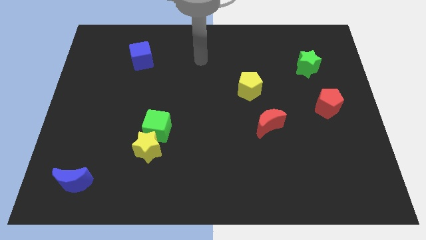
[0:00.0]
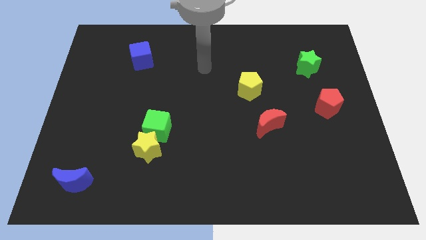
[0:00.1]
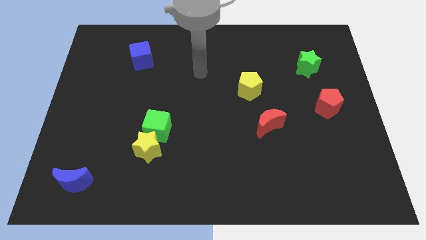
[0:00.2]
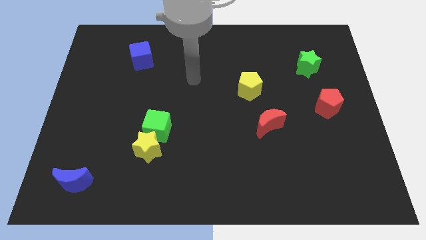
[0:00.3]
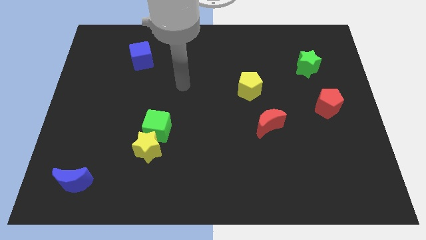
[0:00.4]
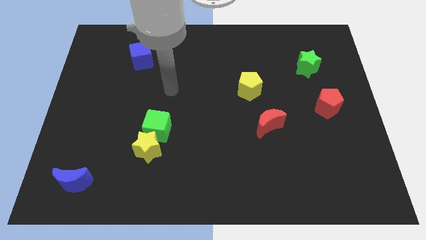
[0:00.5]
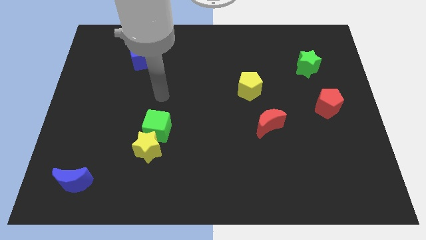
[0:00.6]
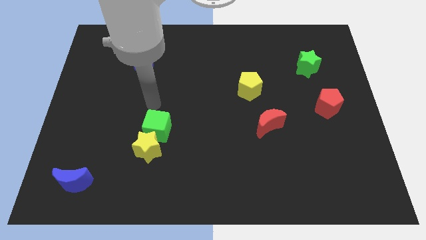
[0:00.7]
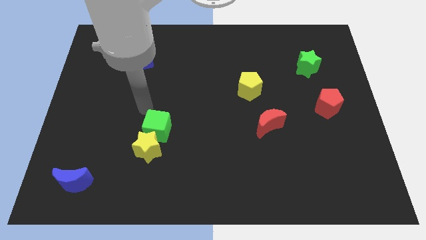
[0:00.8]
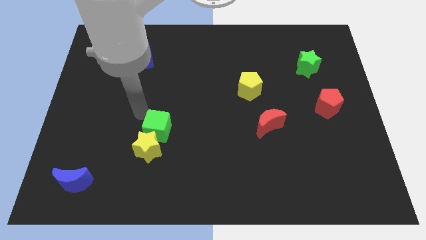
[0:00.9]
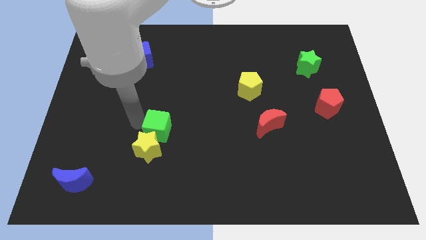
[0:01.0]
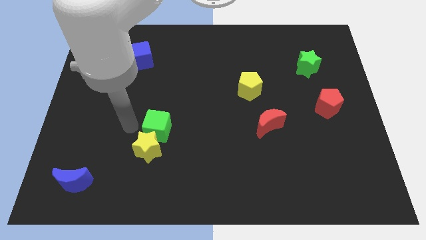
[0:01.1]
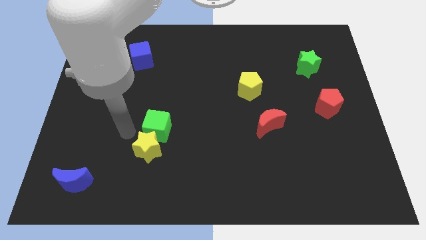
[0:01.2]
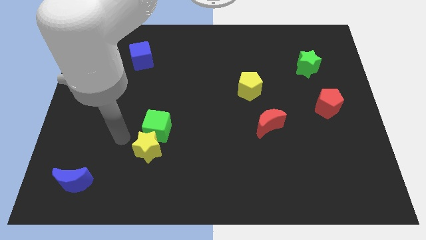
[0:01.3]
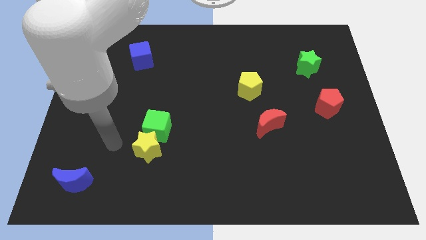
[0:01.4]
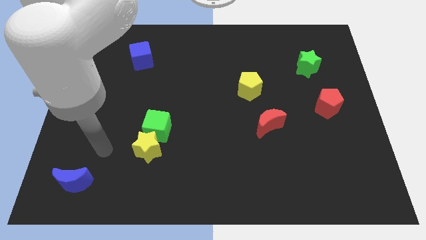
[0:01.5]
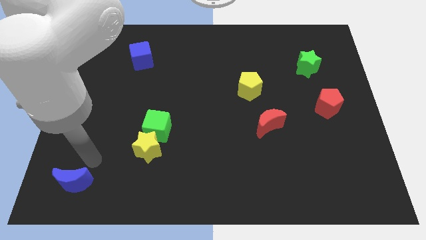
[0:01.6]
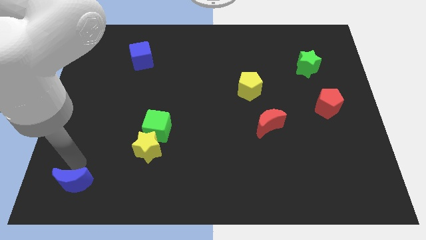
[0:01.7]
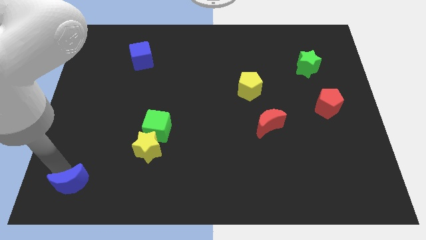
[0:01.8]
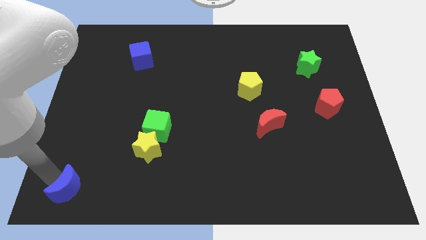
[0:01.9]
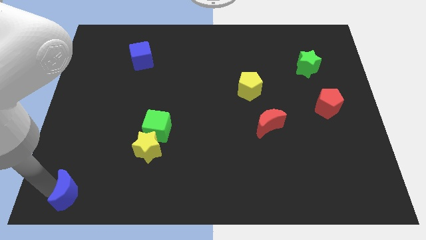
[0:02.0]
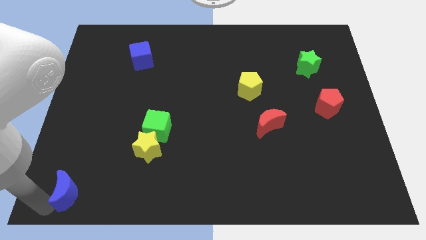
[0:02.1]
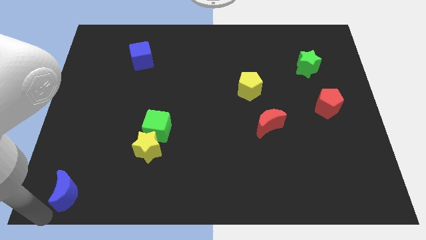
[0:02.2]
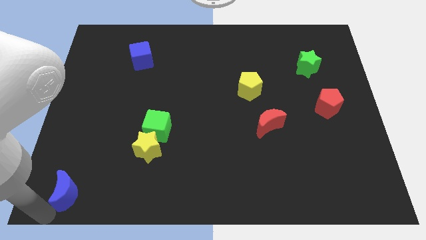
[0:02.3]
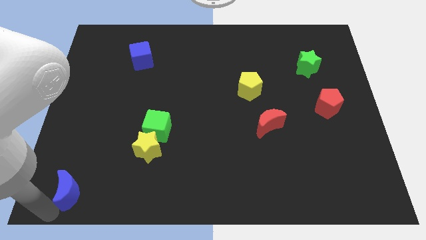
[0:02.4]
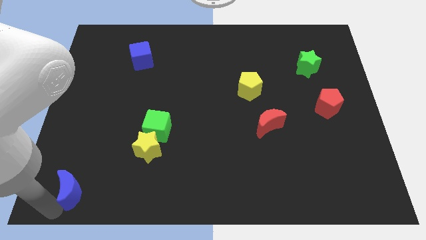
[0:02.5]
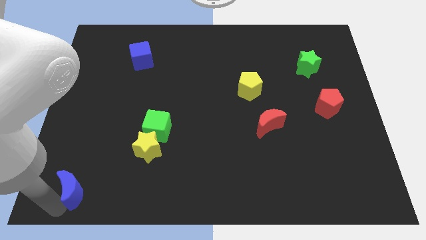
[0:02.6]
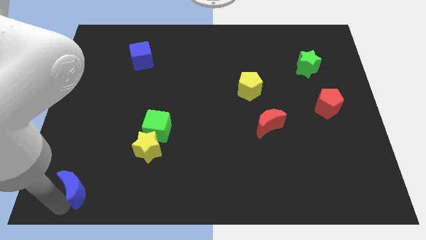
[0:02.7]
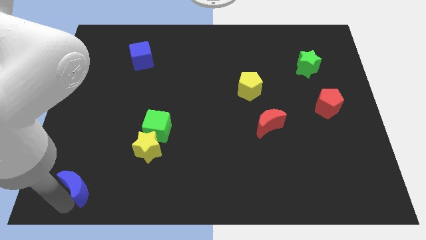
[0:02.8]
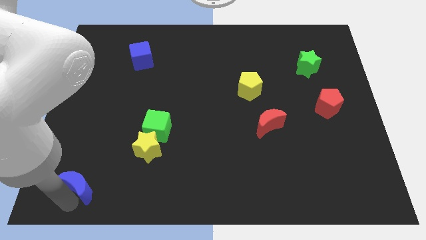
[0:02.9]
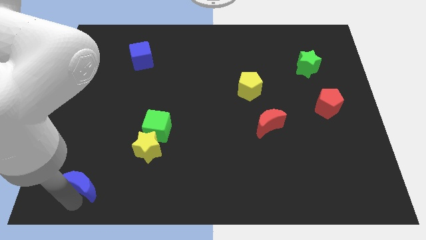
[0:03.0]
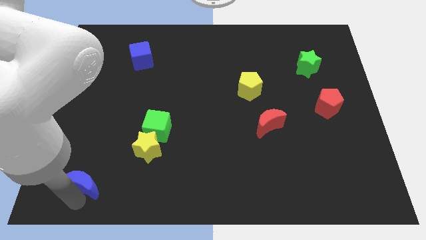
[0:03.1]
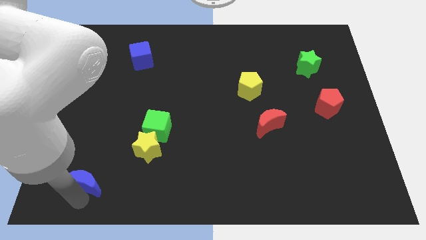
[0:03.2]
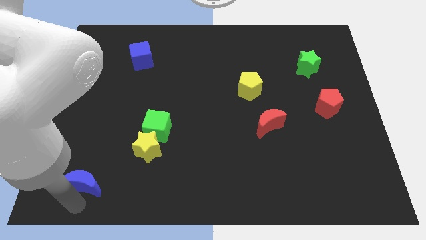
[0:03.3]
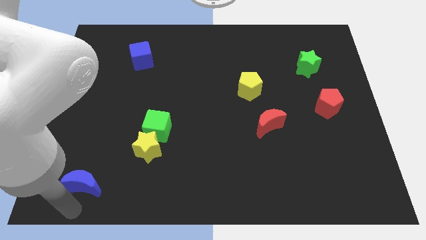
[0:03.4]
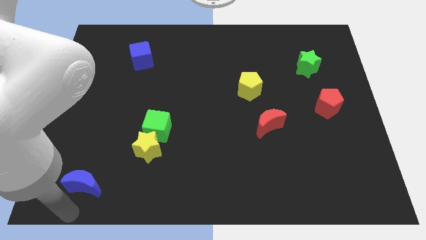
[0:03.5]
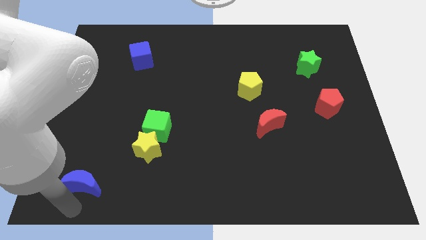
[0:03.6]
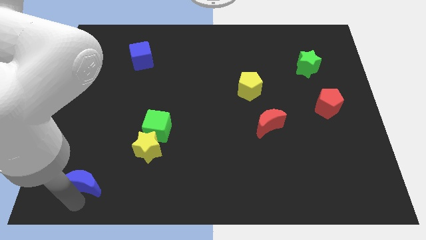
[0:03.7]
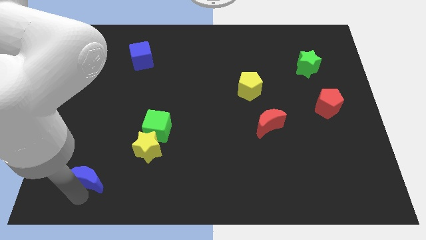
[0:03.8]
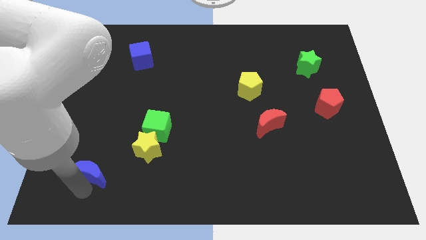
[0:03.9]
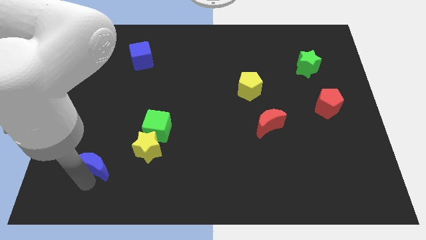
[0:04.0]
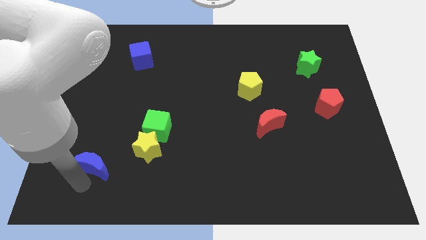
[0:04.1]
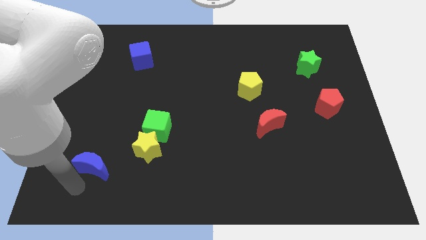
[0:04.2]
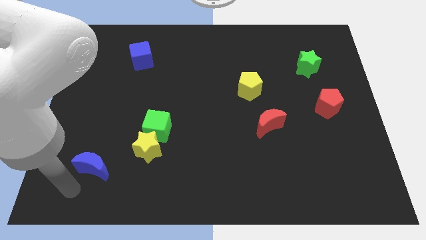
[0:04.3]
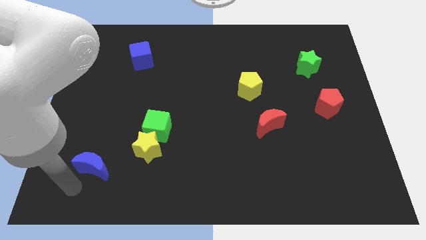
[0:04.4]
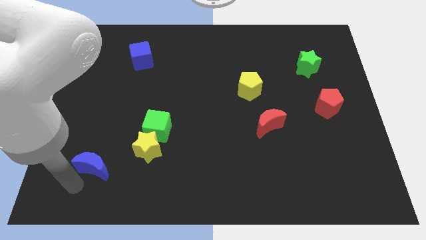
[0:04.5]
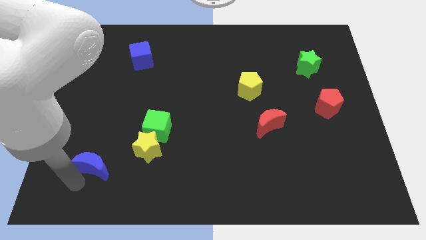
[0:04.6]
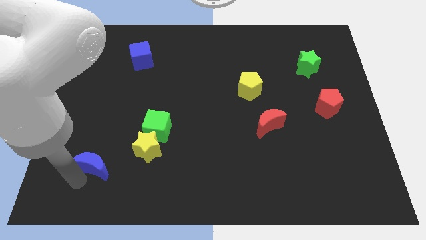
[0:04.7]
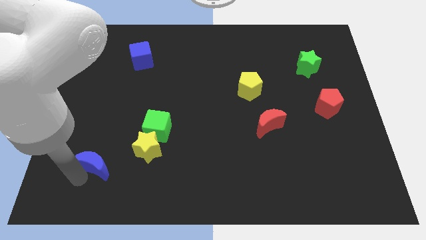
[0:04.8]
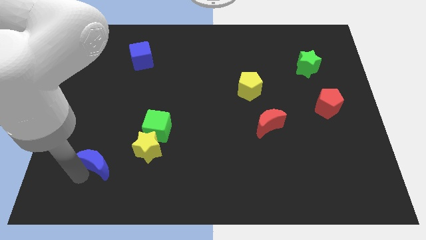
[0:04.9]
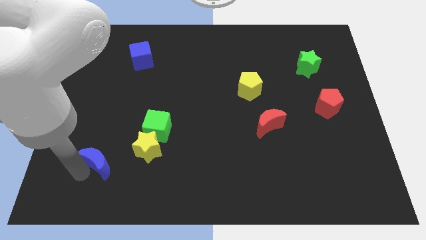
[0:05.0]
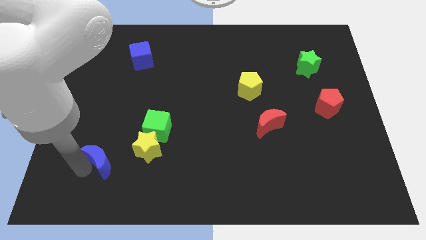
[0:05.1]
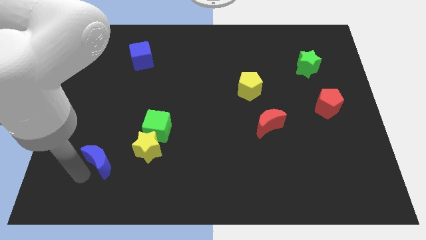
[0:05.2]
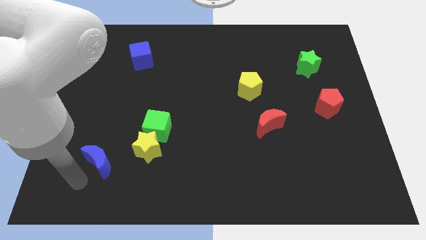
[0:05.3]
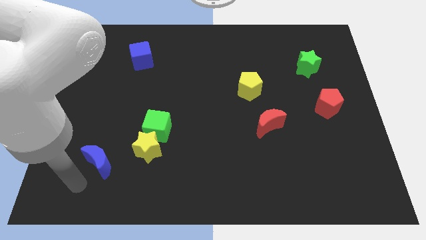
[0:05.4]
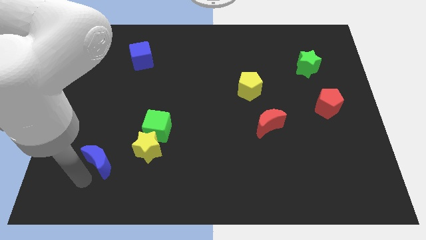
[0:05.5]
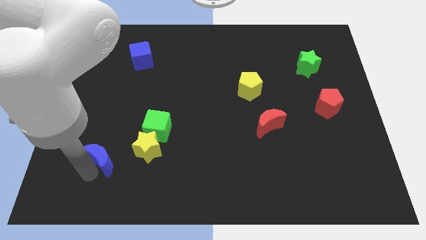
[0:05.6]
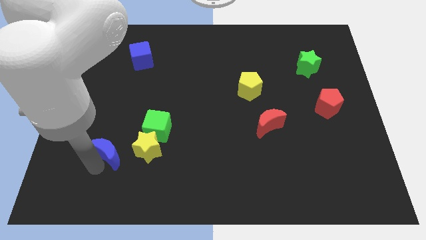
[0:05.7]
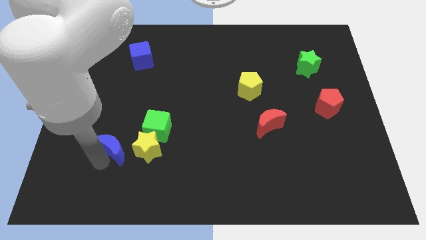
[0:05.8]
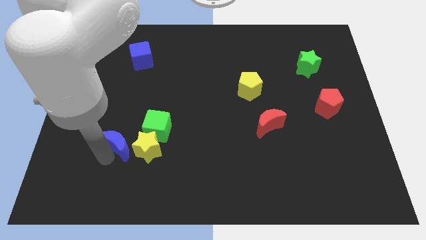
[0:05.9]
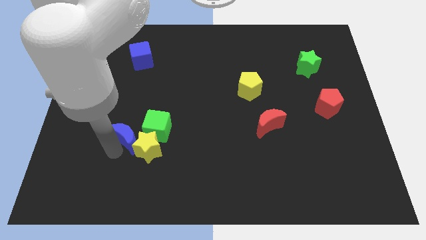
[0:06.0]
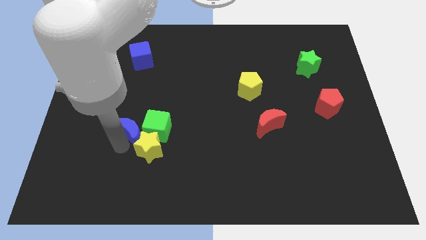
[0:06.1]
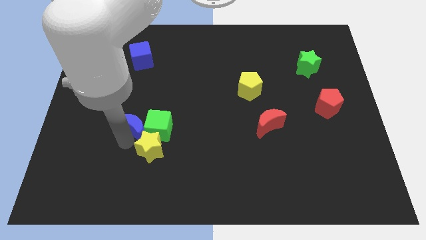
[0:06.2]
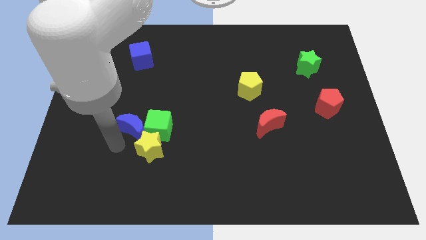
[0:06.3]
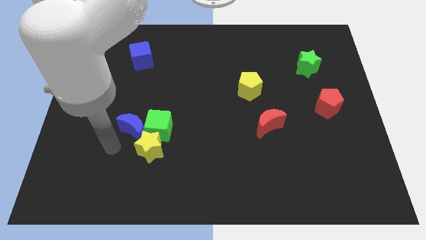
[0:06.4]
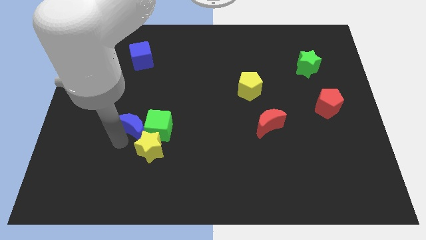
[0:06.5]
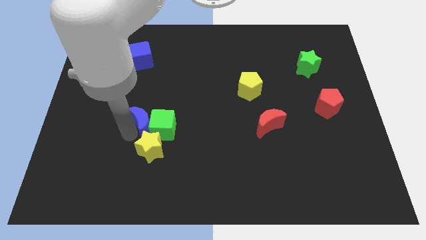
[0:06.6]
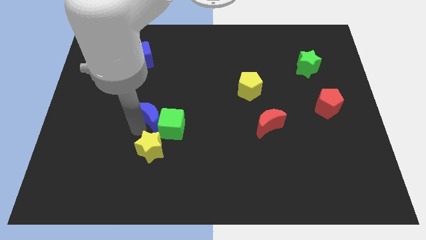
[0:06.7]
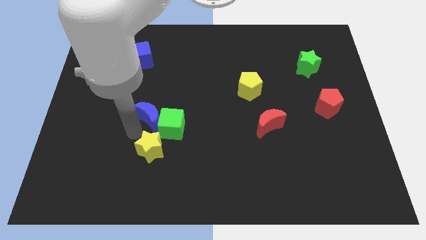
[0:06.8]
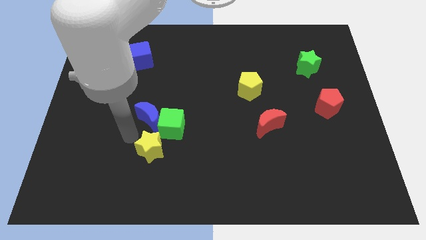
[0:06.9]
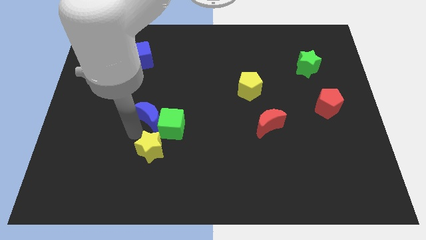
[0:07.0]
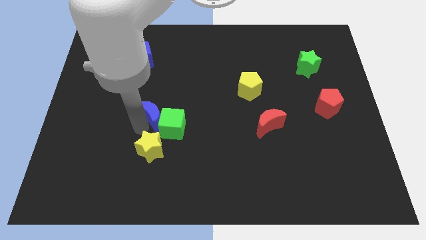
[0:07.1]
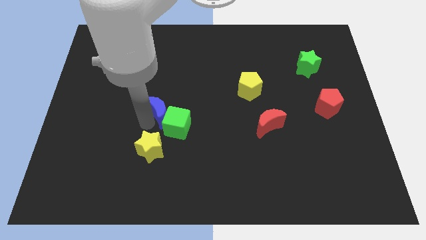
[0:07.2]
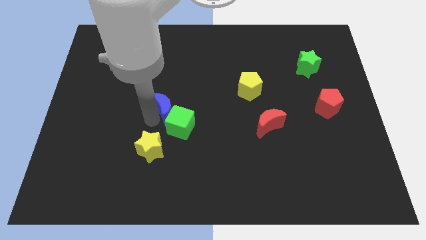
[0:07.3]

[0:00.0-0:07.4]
put the blue moon to the middle of the board

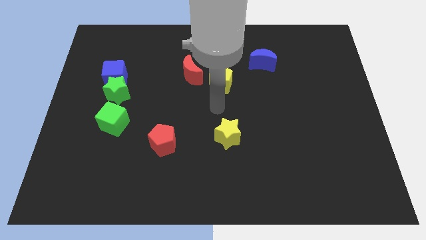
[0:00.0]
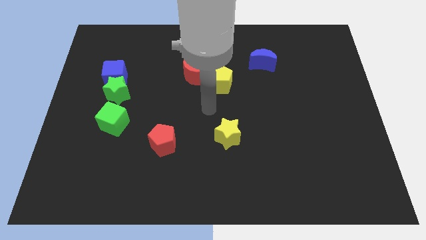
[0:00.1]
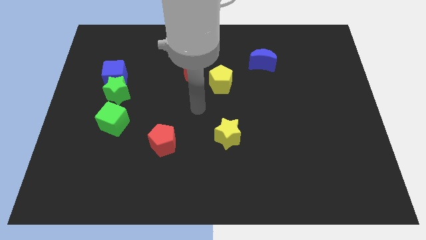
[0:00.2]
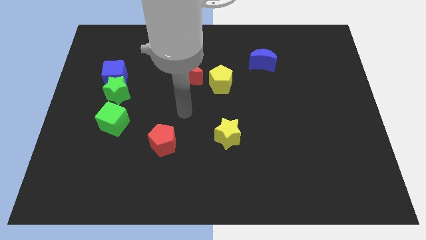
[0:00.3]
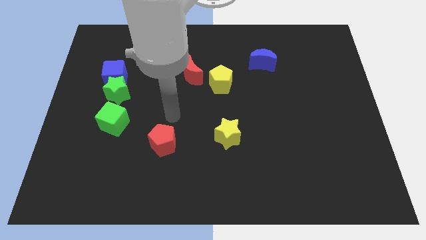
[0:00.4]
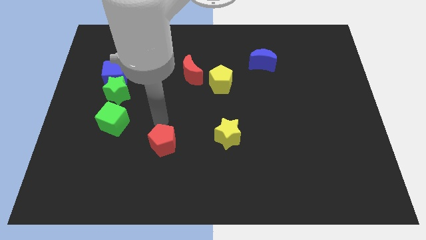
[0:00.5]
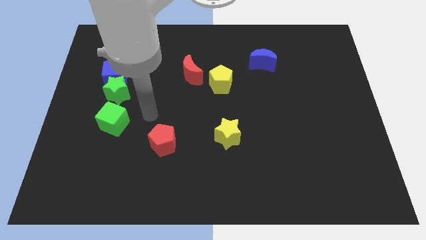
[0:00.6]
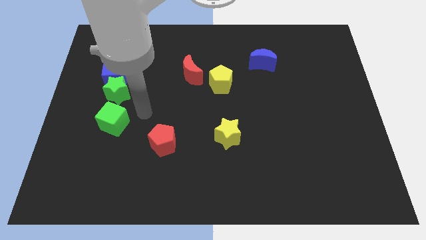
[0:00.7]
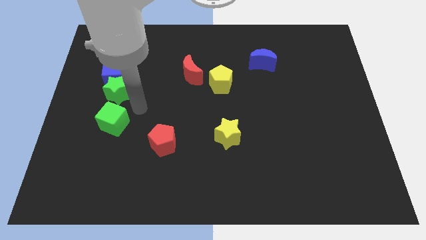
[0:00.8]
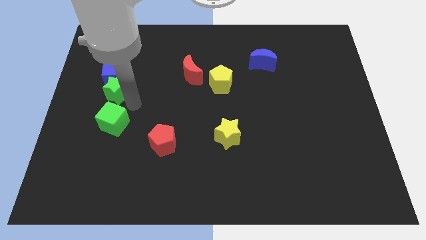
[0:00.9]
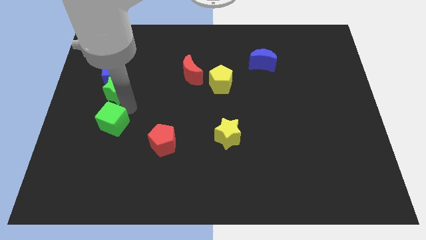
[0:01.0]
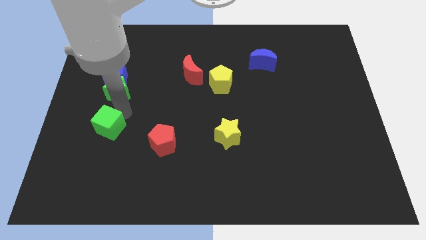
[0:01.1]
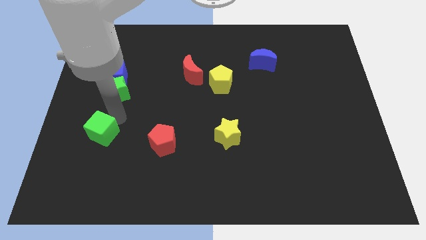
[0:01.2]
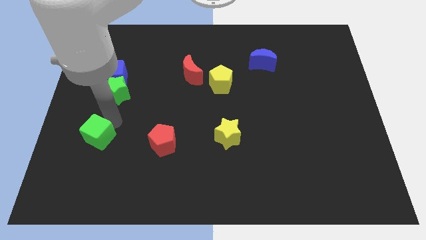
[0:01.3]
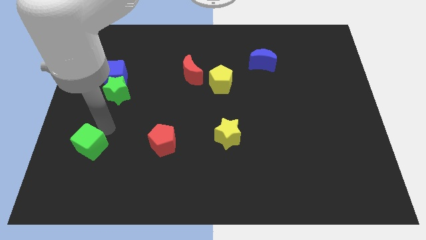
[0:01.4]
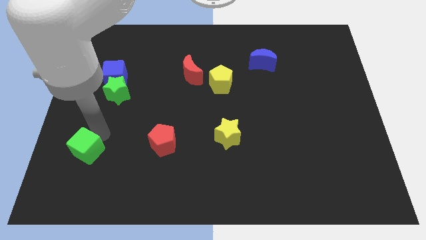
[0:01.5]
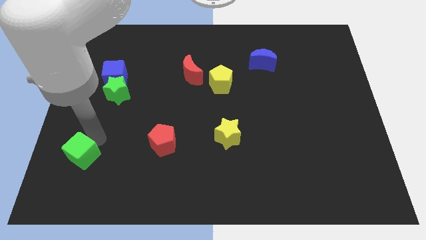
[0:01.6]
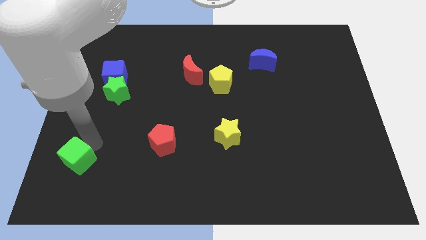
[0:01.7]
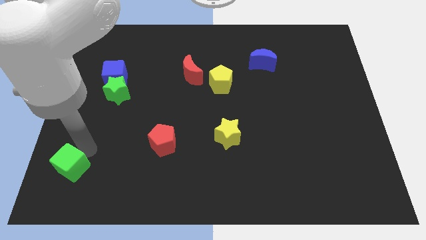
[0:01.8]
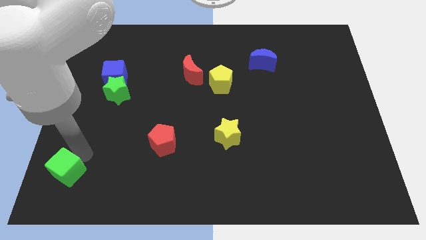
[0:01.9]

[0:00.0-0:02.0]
move the green cube to the bottom left corner
